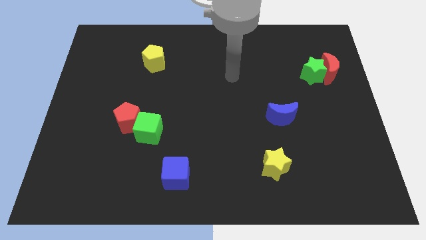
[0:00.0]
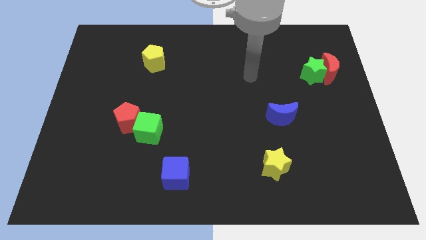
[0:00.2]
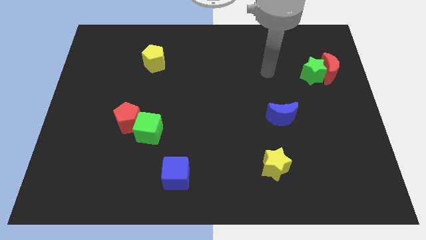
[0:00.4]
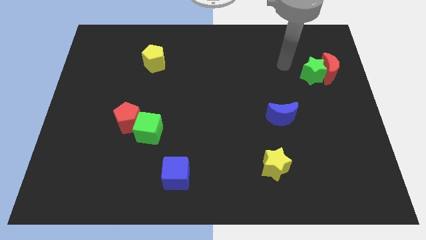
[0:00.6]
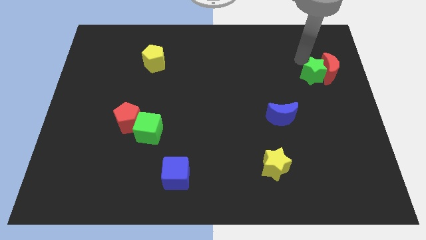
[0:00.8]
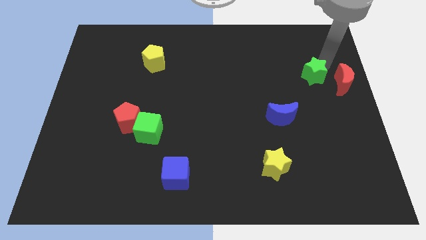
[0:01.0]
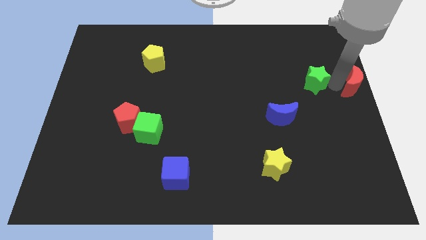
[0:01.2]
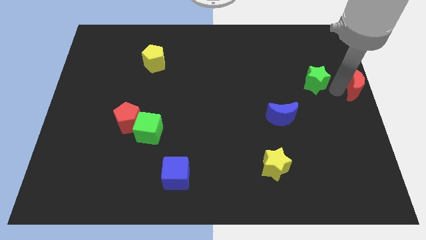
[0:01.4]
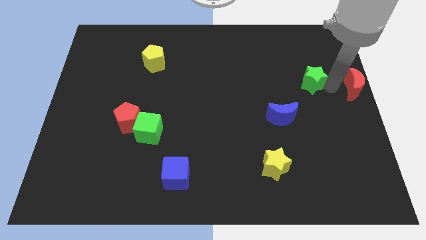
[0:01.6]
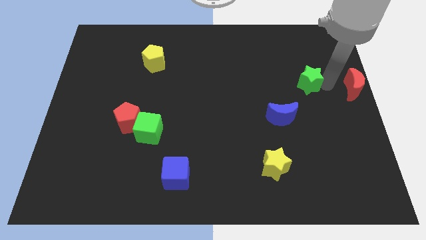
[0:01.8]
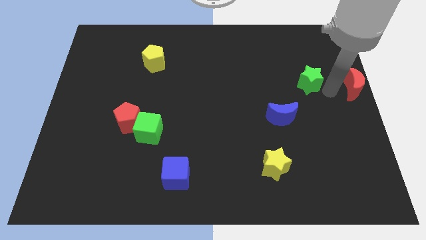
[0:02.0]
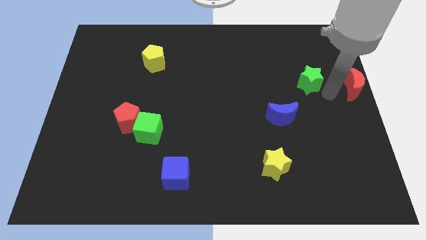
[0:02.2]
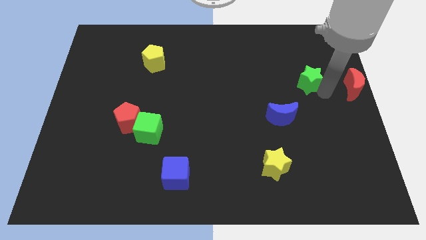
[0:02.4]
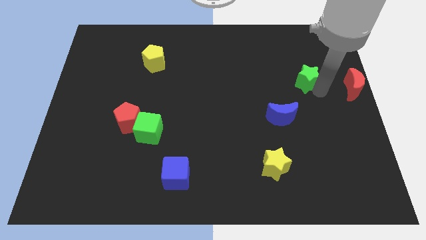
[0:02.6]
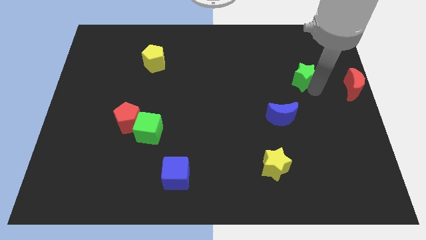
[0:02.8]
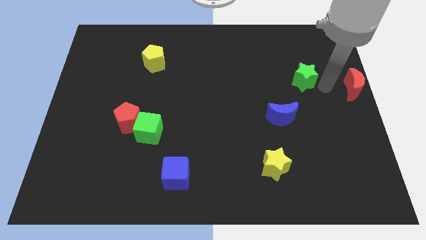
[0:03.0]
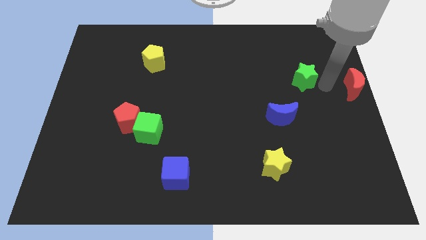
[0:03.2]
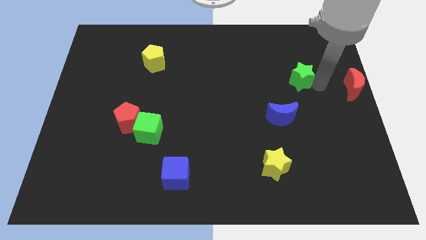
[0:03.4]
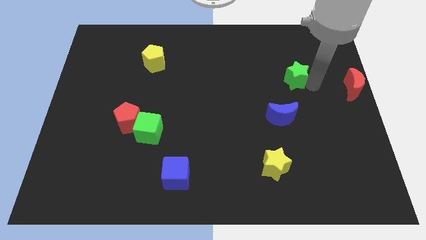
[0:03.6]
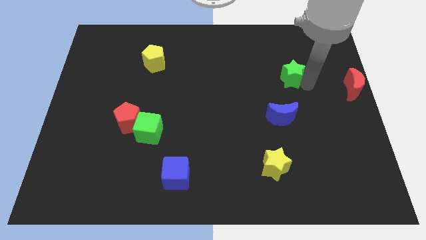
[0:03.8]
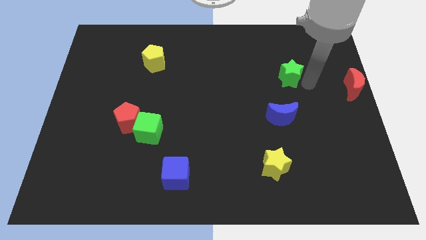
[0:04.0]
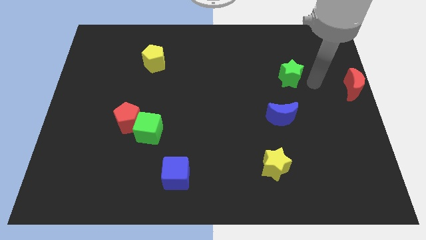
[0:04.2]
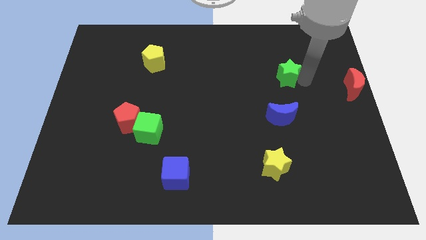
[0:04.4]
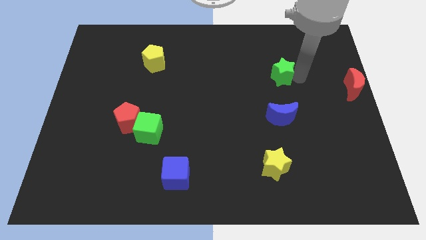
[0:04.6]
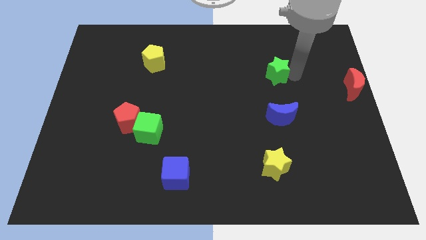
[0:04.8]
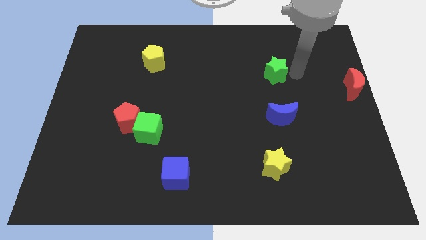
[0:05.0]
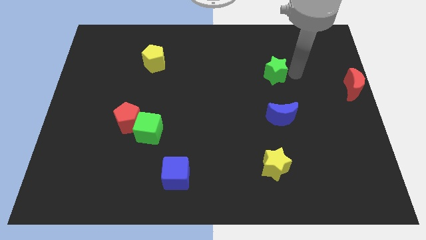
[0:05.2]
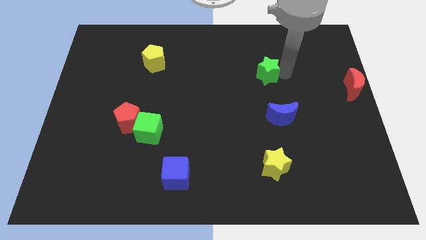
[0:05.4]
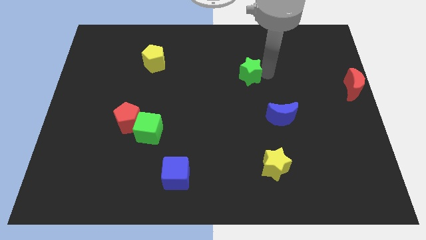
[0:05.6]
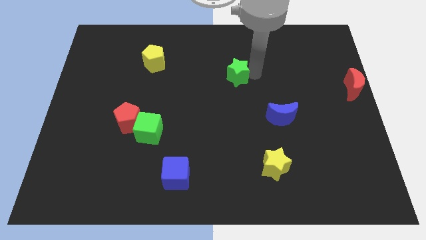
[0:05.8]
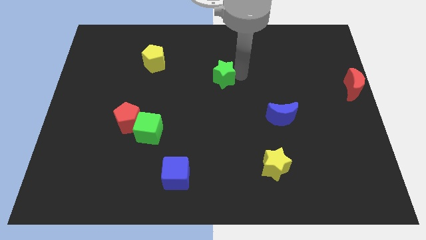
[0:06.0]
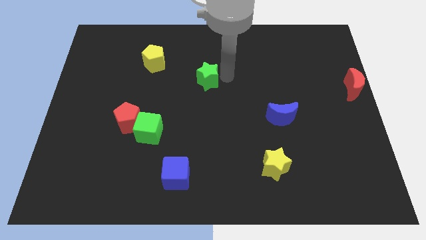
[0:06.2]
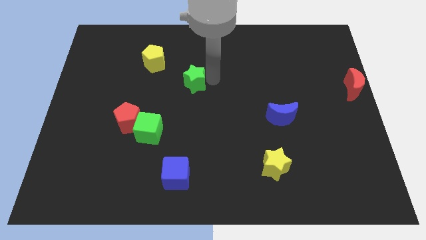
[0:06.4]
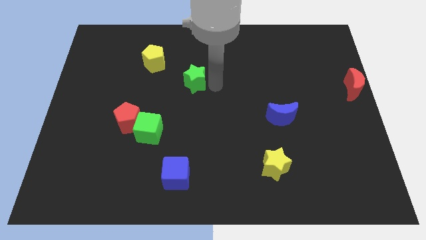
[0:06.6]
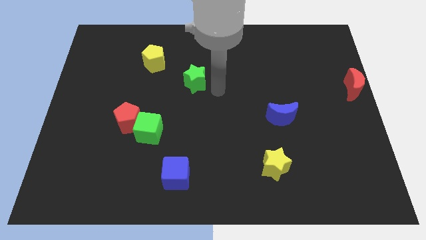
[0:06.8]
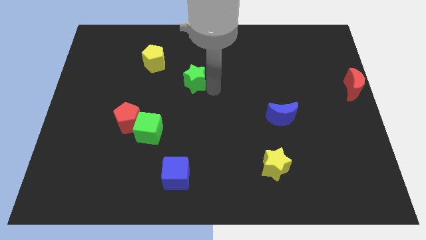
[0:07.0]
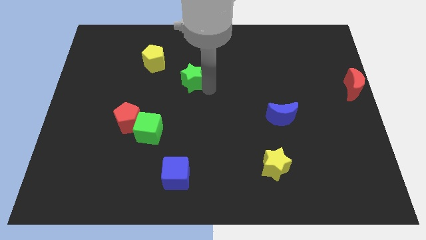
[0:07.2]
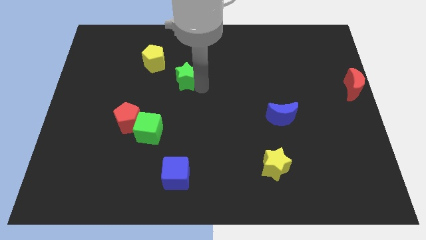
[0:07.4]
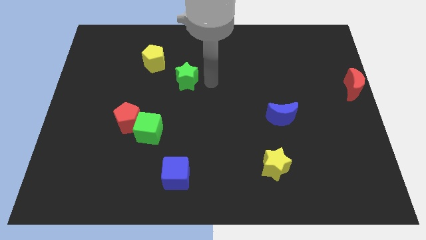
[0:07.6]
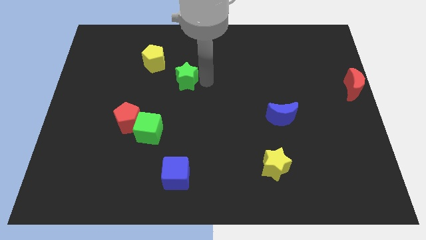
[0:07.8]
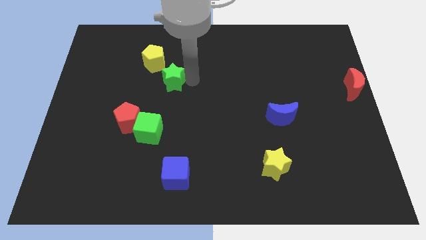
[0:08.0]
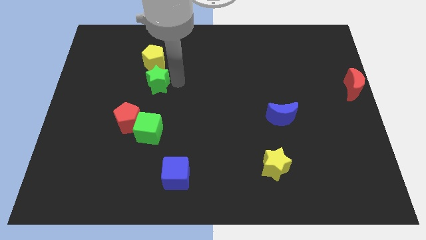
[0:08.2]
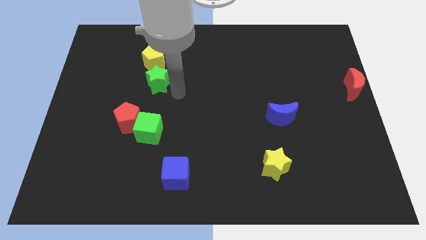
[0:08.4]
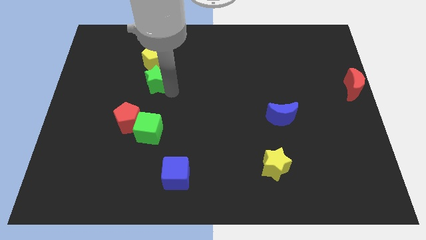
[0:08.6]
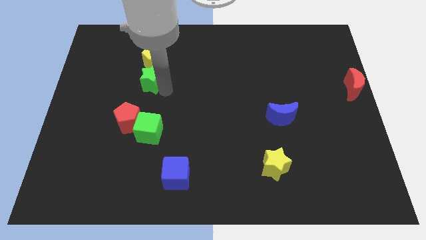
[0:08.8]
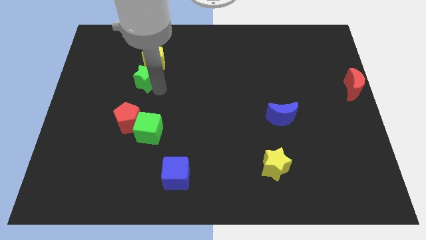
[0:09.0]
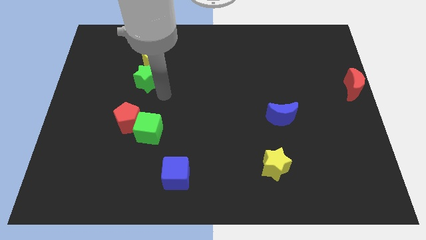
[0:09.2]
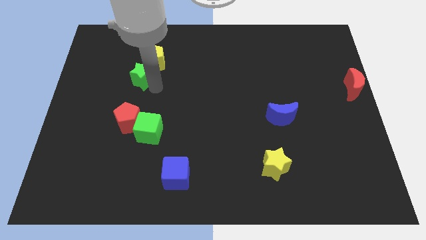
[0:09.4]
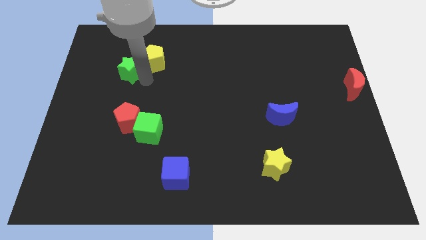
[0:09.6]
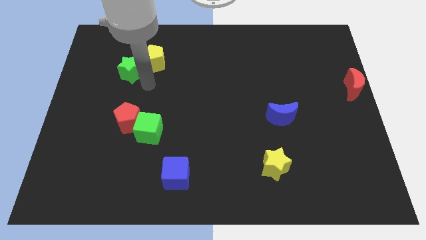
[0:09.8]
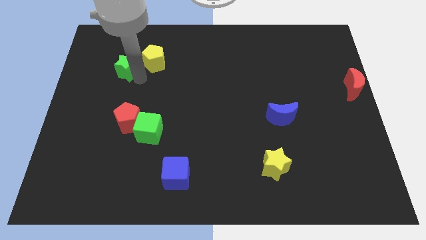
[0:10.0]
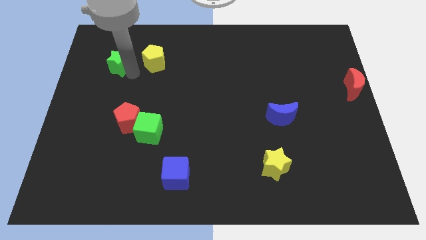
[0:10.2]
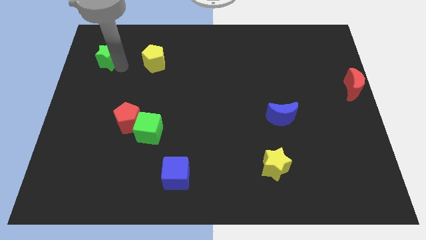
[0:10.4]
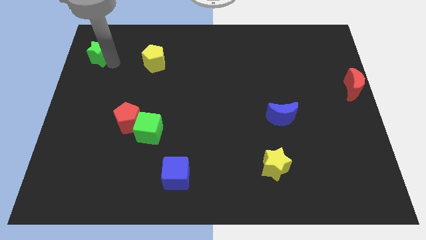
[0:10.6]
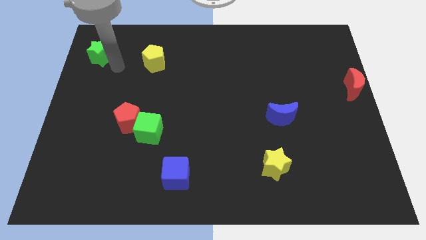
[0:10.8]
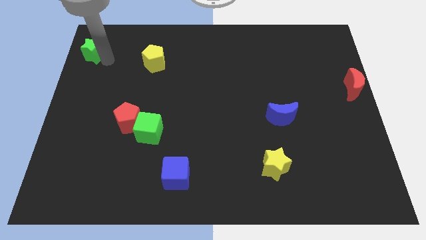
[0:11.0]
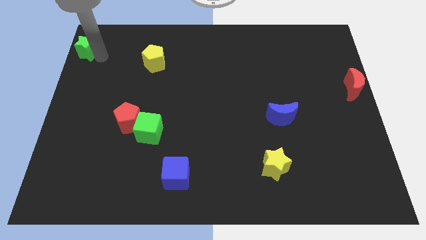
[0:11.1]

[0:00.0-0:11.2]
slide the green star to the top left

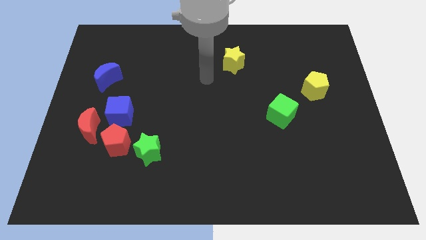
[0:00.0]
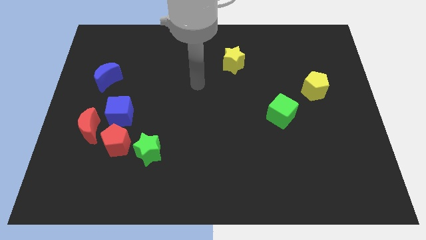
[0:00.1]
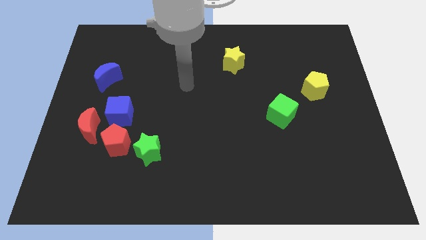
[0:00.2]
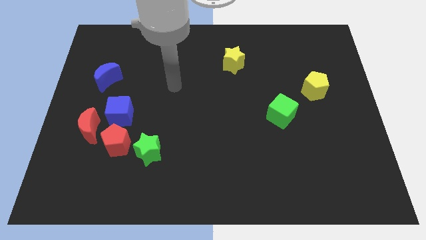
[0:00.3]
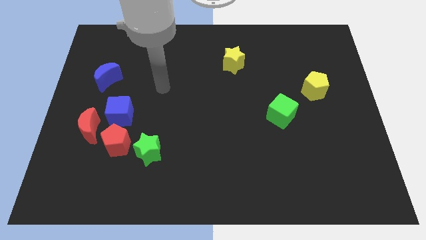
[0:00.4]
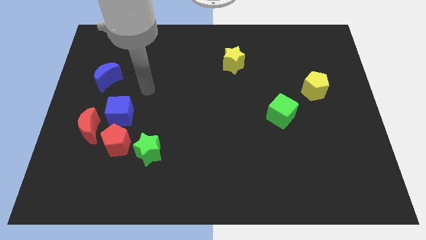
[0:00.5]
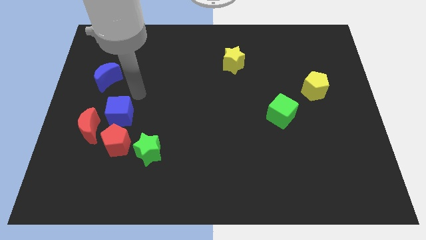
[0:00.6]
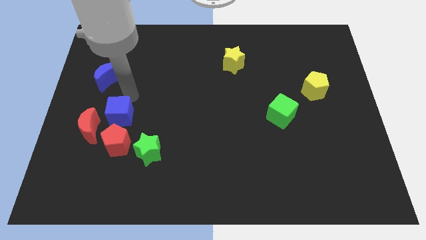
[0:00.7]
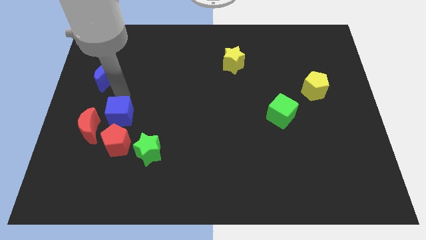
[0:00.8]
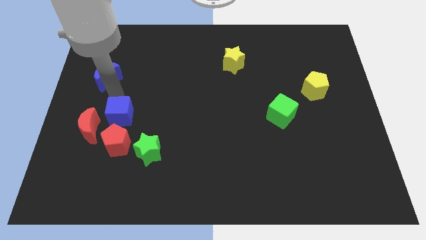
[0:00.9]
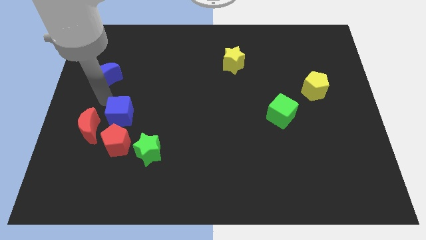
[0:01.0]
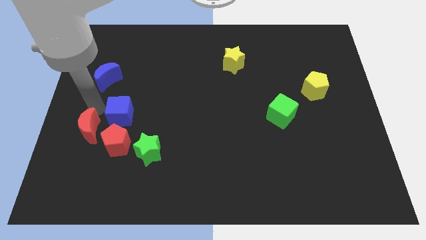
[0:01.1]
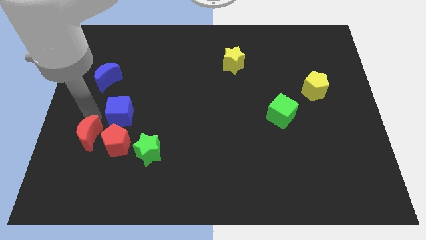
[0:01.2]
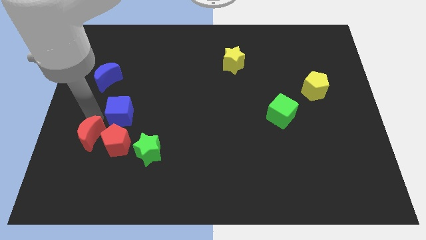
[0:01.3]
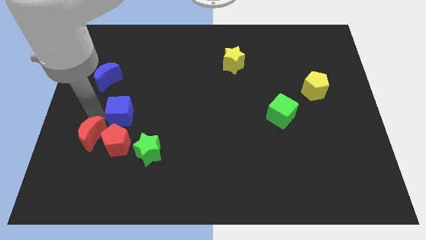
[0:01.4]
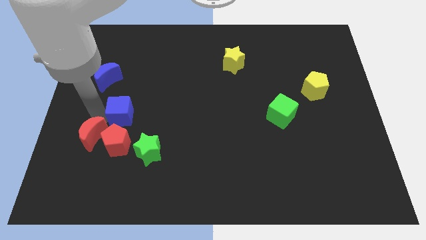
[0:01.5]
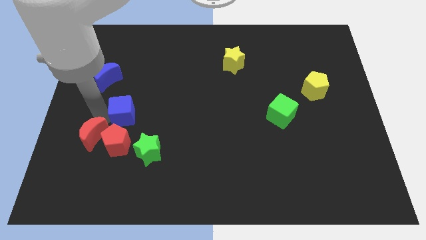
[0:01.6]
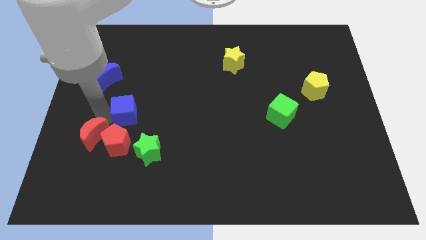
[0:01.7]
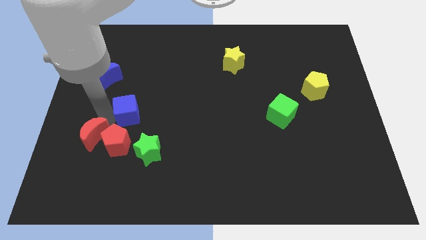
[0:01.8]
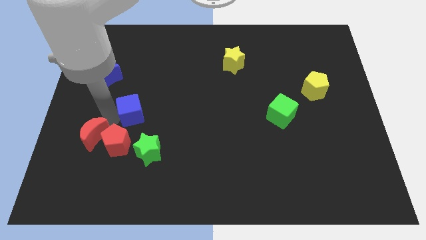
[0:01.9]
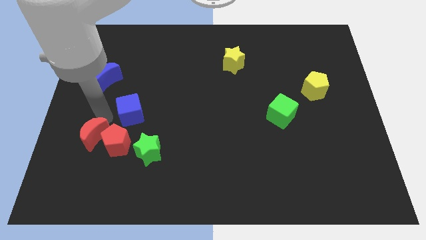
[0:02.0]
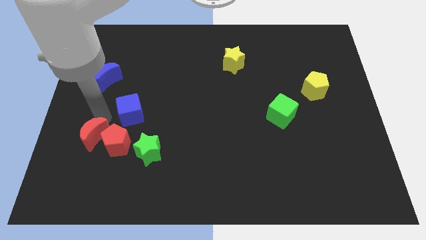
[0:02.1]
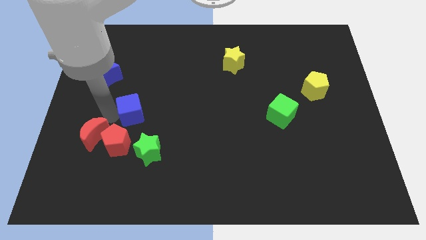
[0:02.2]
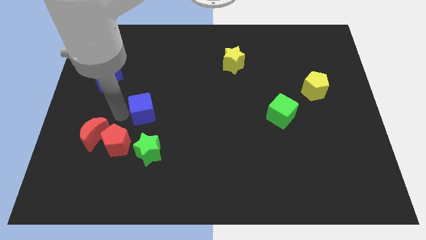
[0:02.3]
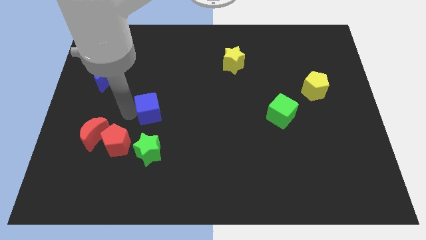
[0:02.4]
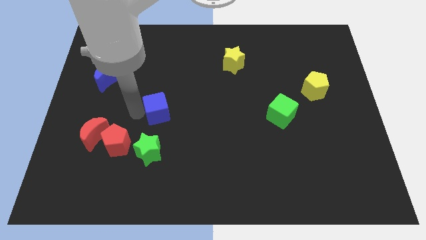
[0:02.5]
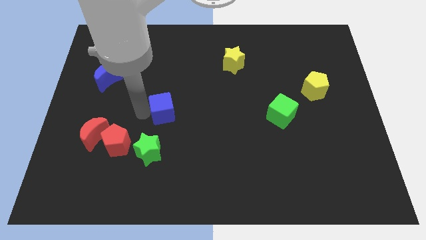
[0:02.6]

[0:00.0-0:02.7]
move the blue cube to the center
